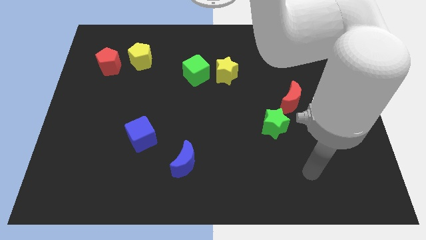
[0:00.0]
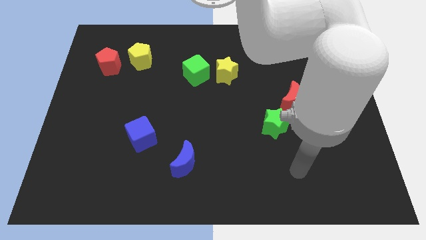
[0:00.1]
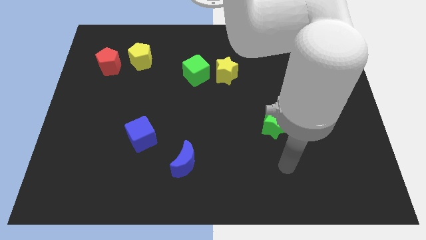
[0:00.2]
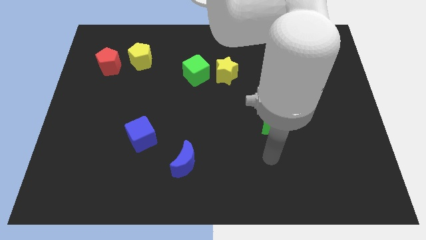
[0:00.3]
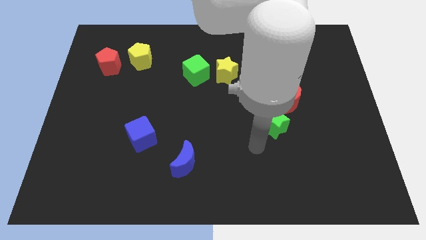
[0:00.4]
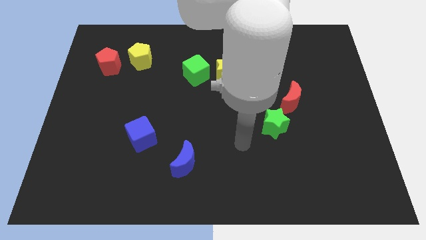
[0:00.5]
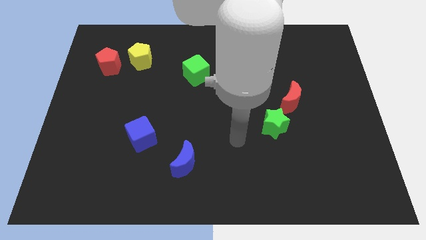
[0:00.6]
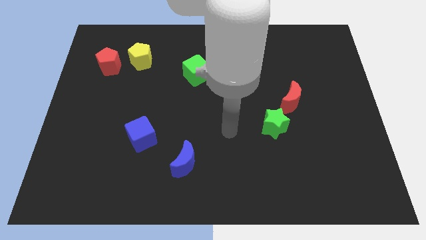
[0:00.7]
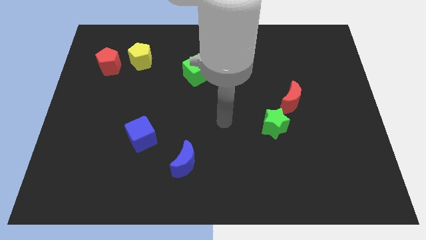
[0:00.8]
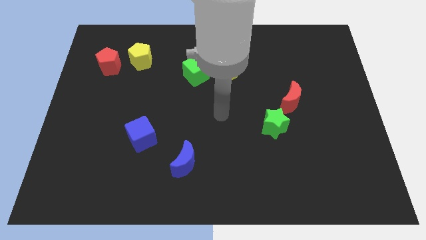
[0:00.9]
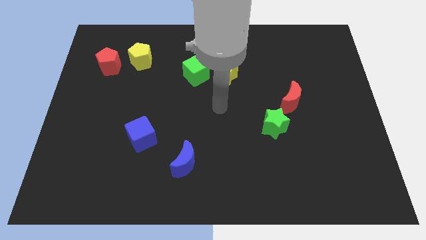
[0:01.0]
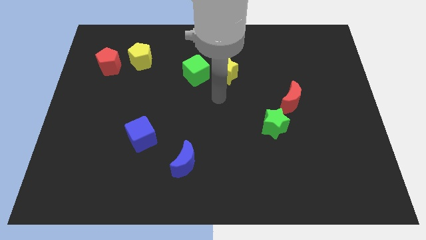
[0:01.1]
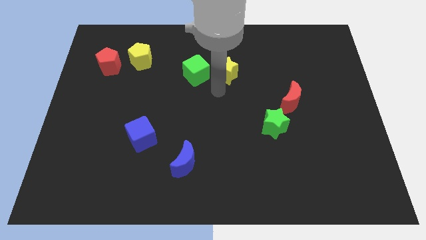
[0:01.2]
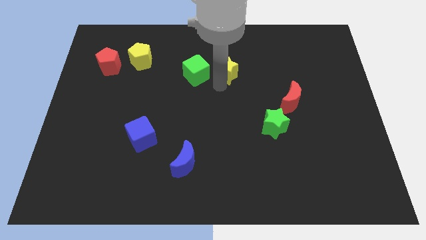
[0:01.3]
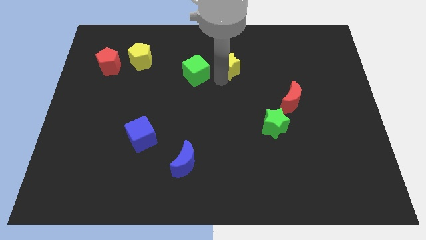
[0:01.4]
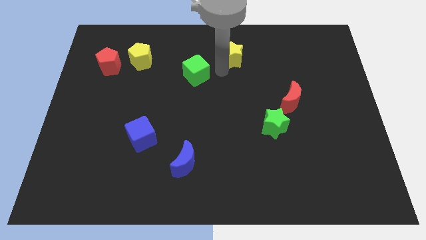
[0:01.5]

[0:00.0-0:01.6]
separate the green cube from the yellow star

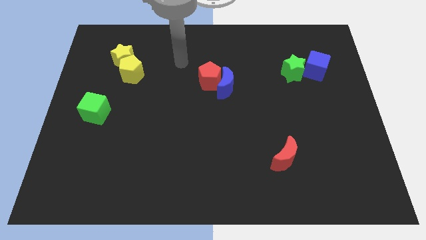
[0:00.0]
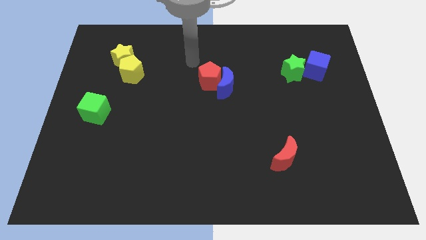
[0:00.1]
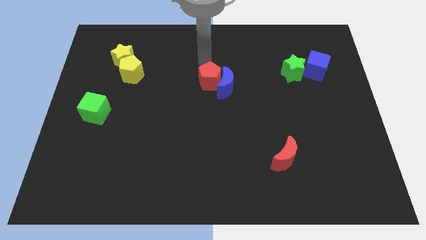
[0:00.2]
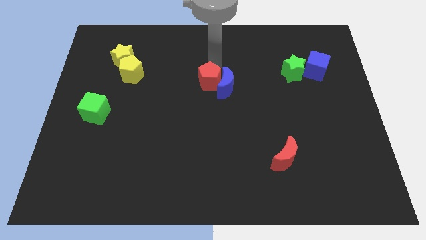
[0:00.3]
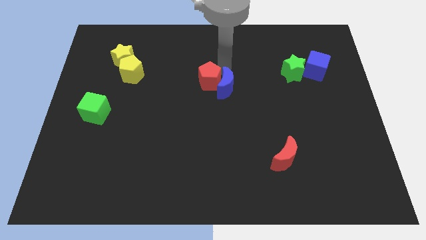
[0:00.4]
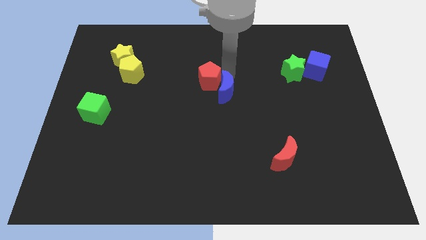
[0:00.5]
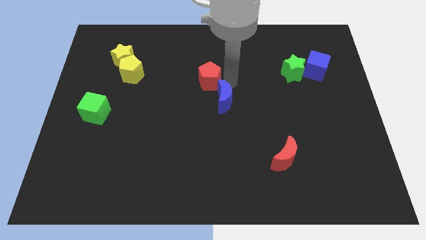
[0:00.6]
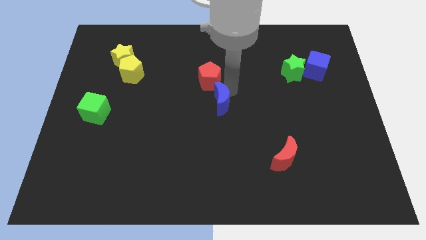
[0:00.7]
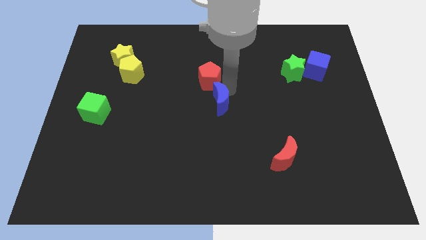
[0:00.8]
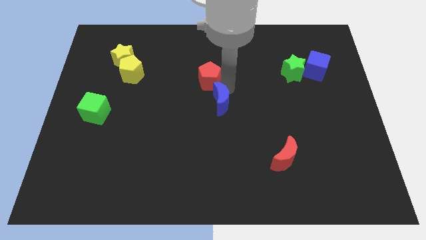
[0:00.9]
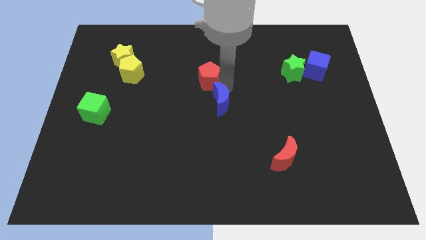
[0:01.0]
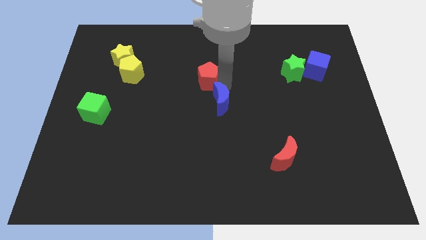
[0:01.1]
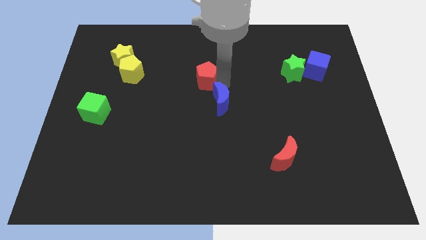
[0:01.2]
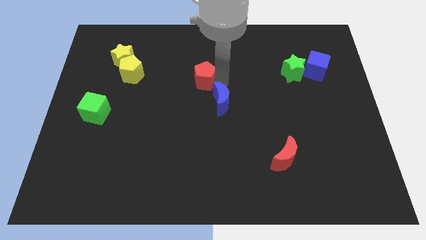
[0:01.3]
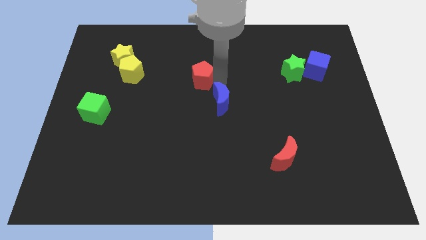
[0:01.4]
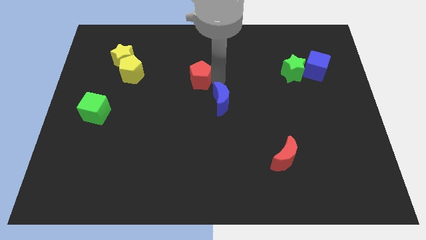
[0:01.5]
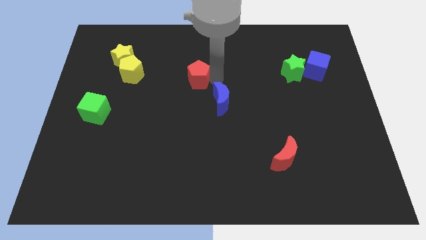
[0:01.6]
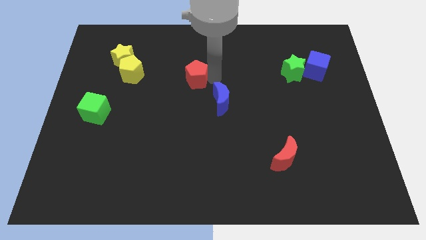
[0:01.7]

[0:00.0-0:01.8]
move the red pentagon away from the blue moon

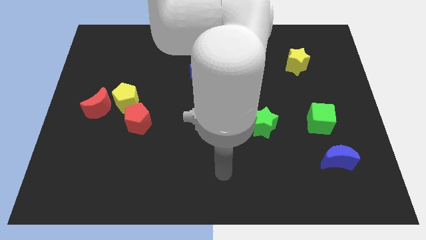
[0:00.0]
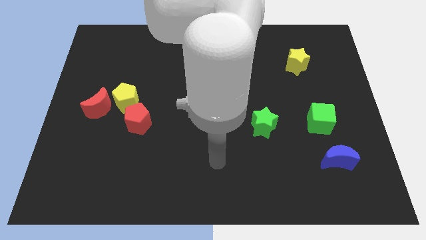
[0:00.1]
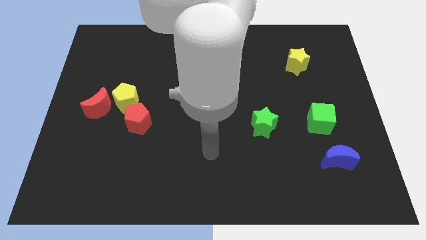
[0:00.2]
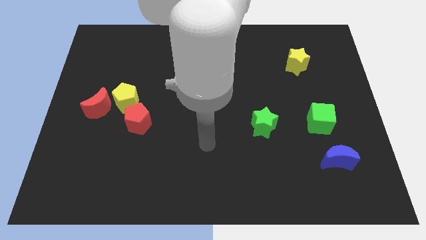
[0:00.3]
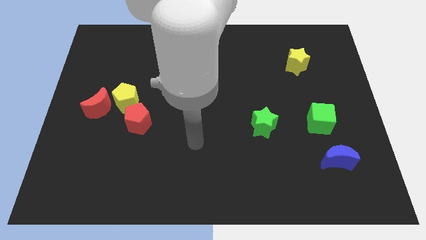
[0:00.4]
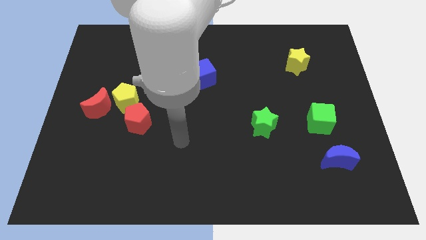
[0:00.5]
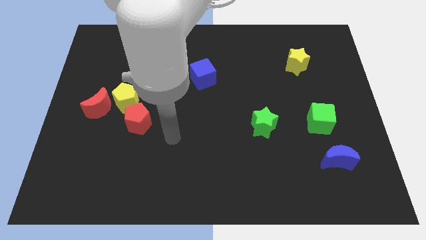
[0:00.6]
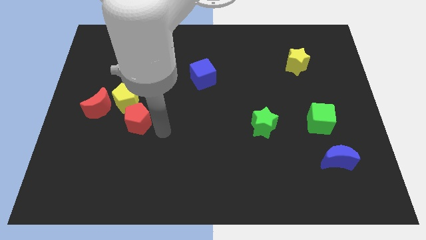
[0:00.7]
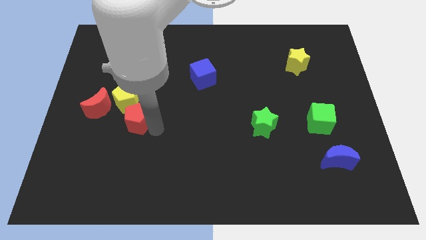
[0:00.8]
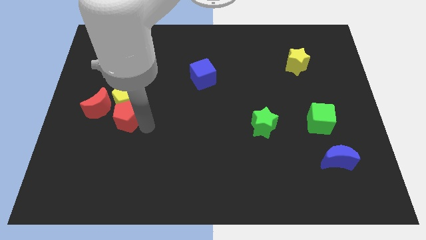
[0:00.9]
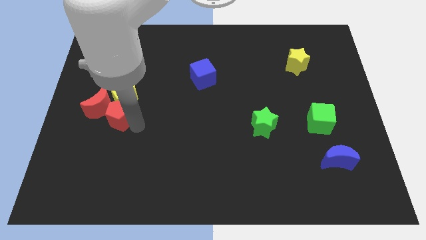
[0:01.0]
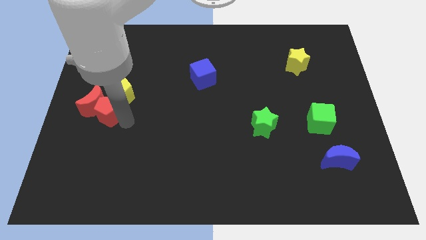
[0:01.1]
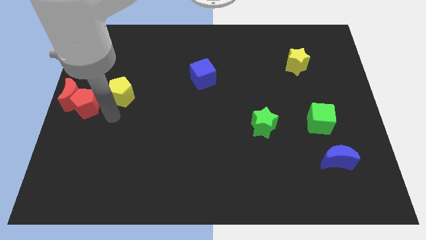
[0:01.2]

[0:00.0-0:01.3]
pull the yellow pentagon apart from the red moon and red pentagon

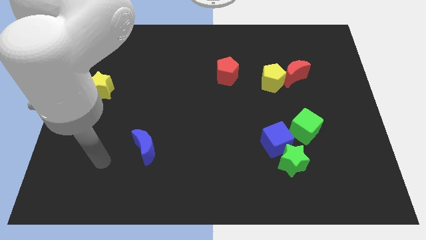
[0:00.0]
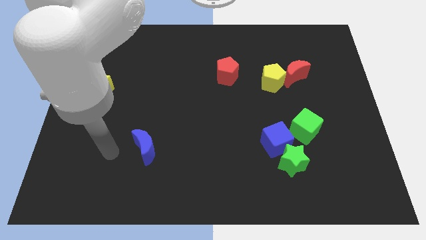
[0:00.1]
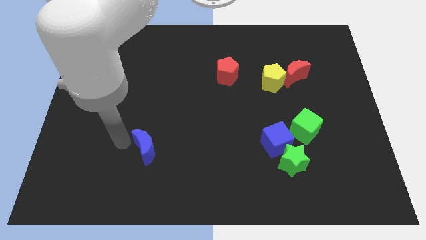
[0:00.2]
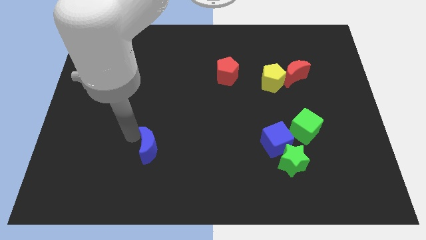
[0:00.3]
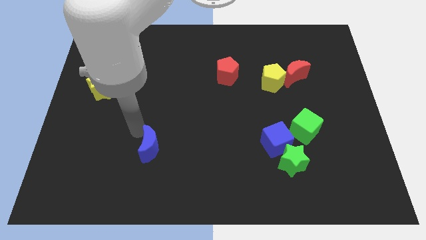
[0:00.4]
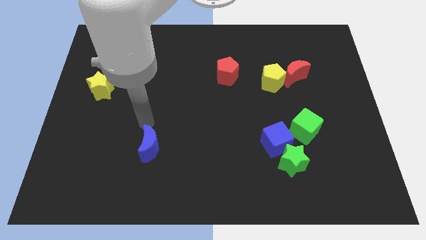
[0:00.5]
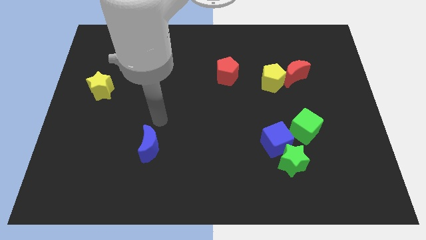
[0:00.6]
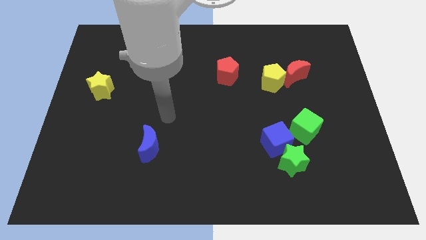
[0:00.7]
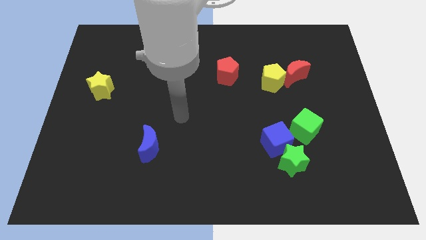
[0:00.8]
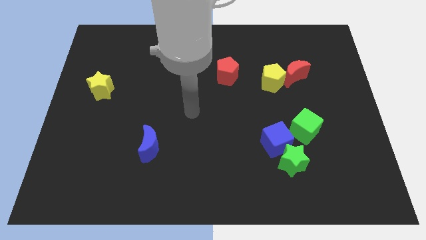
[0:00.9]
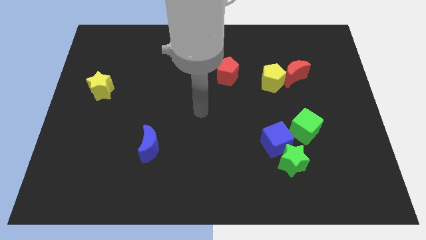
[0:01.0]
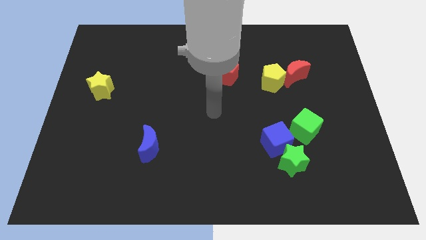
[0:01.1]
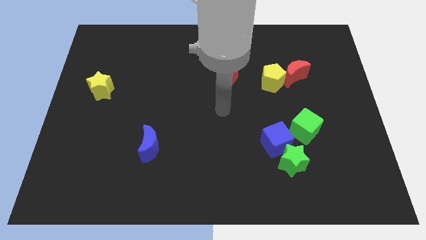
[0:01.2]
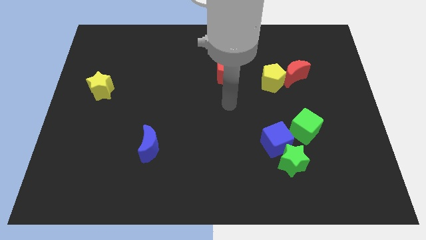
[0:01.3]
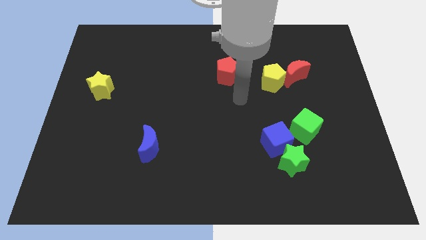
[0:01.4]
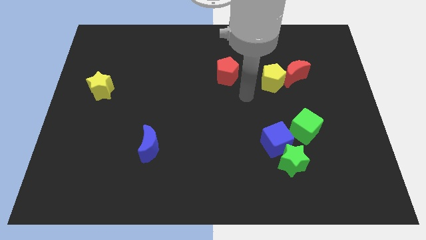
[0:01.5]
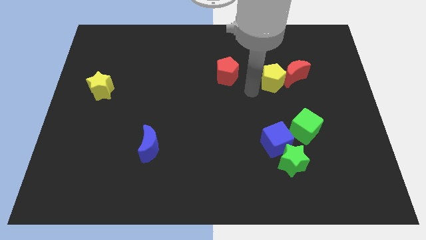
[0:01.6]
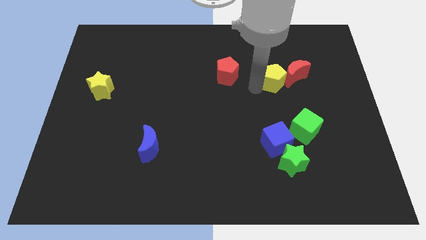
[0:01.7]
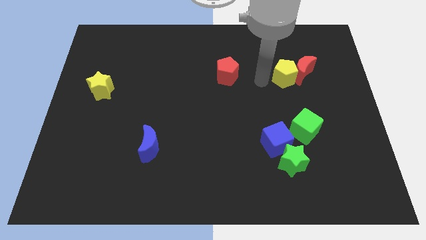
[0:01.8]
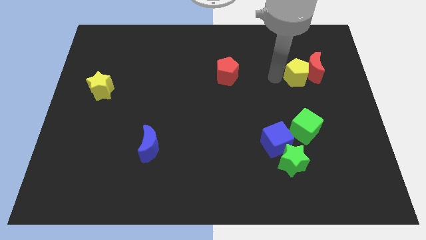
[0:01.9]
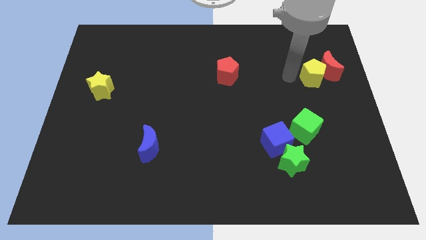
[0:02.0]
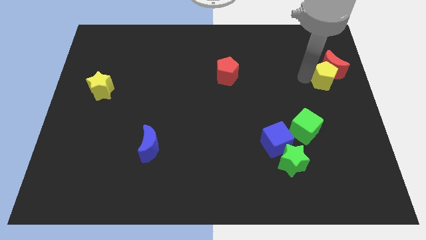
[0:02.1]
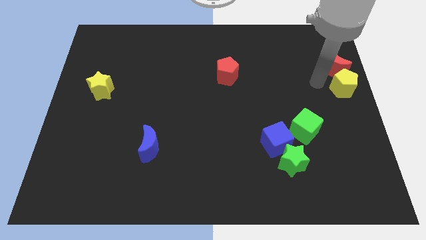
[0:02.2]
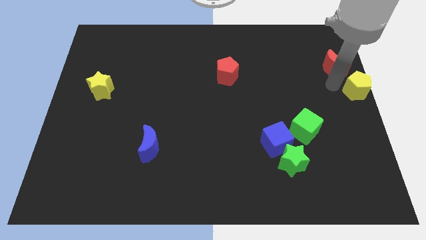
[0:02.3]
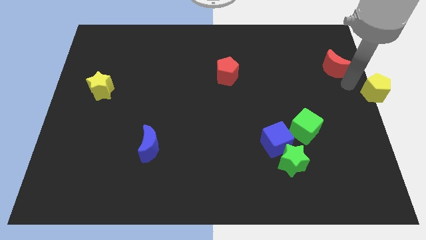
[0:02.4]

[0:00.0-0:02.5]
move the red moon away from the yellow pentagon

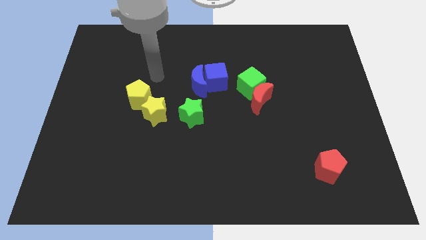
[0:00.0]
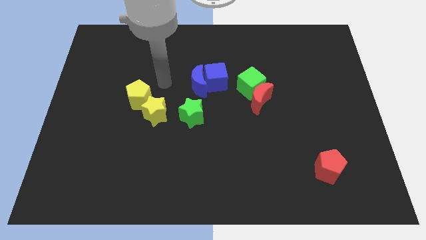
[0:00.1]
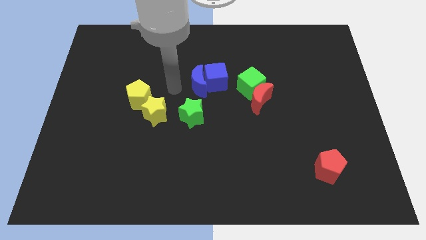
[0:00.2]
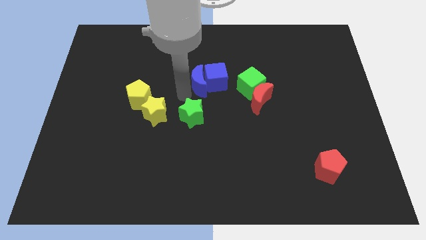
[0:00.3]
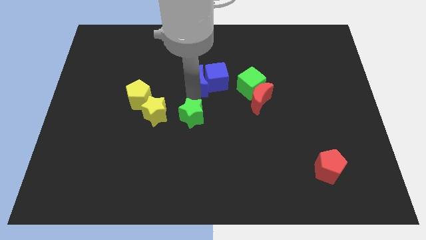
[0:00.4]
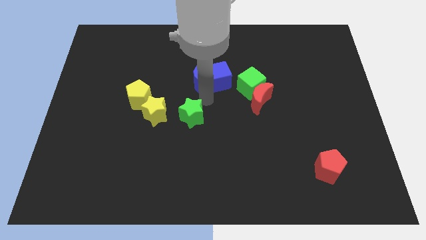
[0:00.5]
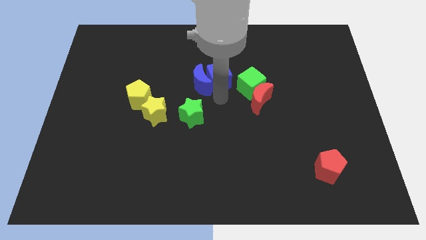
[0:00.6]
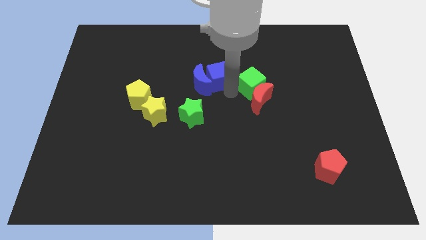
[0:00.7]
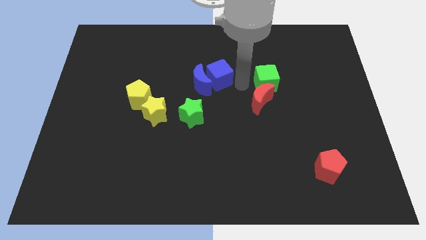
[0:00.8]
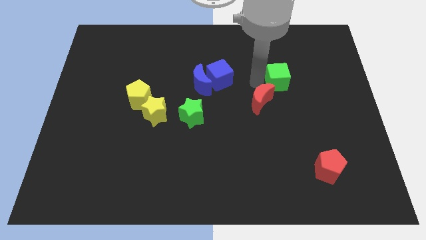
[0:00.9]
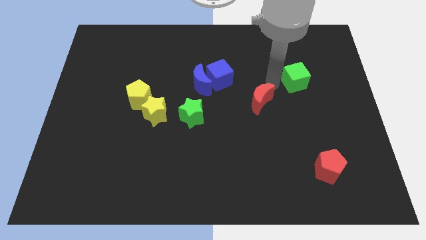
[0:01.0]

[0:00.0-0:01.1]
separate the red moon from the green cube

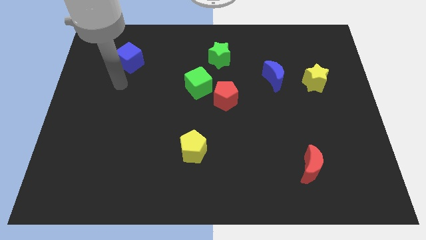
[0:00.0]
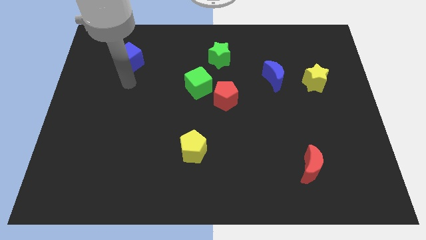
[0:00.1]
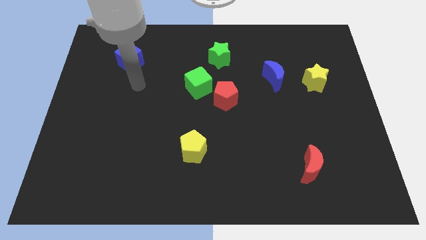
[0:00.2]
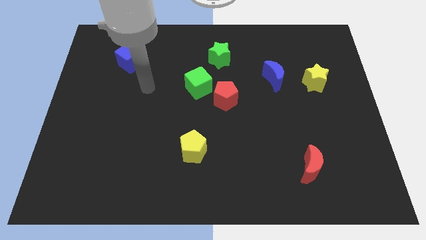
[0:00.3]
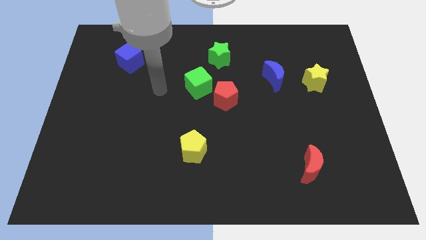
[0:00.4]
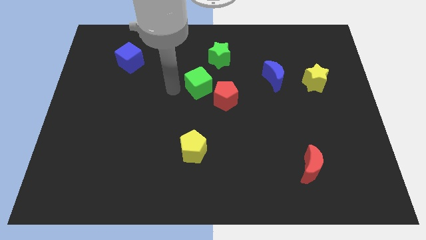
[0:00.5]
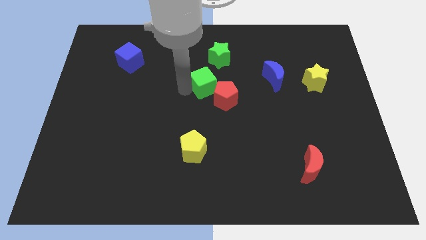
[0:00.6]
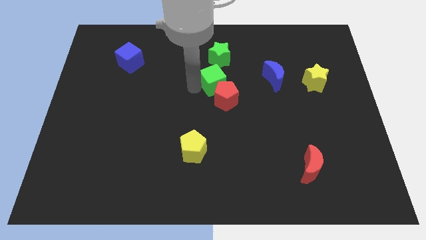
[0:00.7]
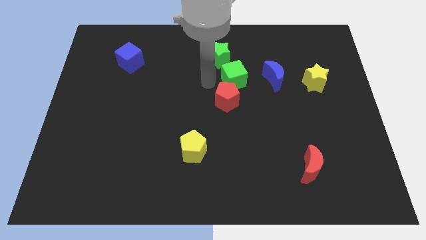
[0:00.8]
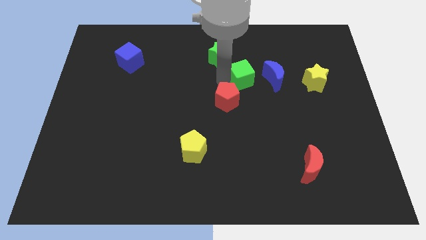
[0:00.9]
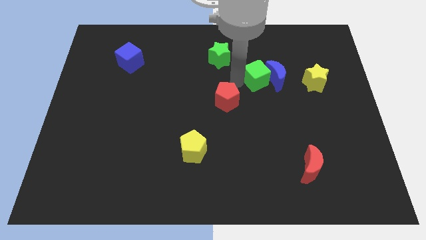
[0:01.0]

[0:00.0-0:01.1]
move the red pentagon away from the green cube

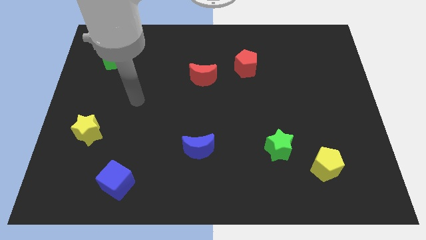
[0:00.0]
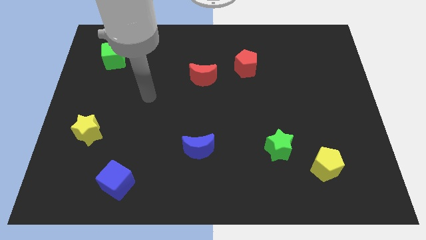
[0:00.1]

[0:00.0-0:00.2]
pull the green star apart from the yellow pentagon
